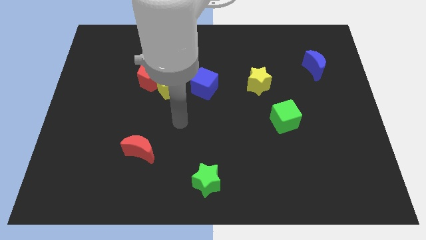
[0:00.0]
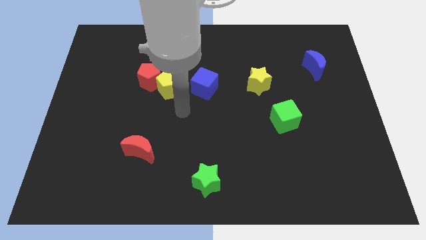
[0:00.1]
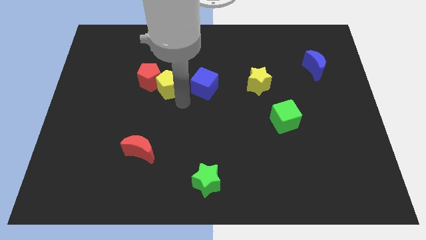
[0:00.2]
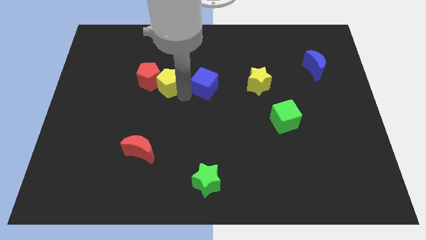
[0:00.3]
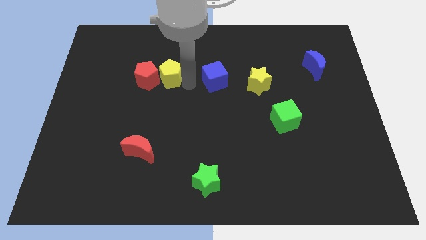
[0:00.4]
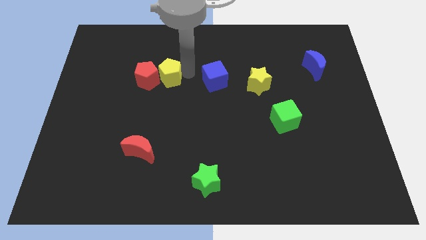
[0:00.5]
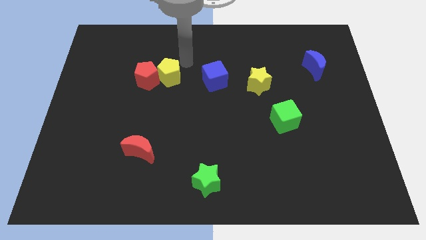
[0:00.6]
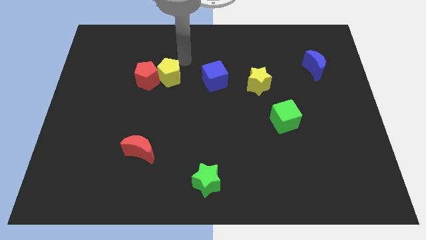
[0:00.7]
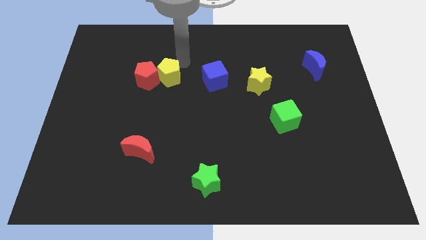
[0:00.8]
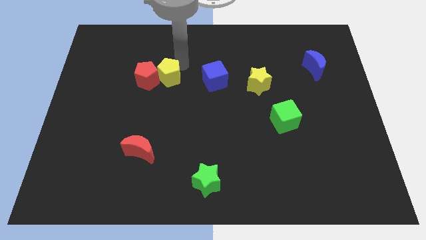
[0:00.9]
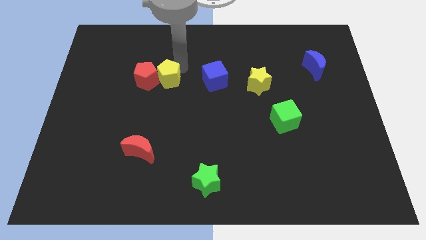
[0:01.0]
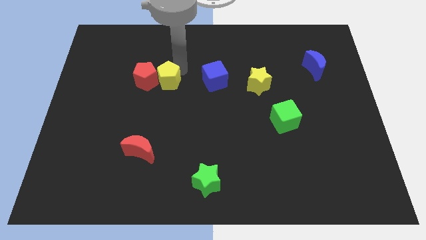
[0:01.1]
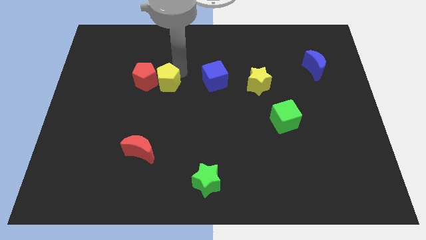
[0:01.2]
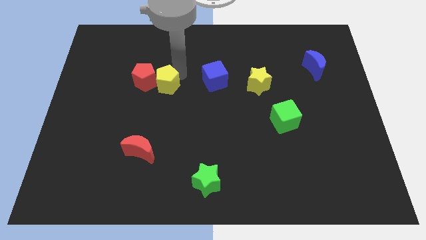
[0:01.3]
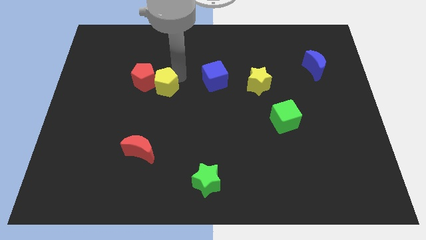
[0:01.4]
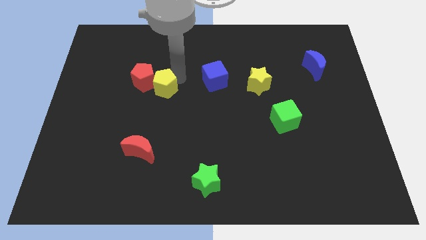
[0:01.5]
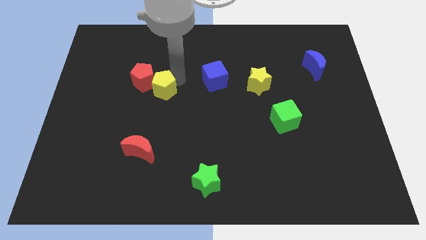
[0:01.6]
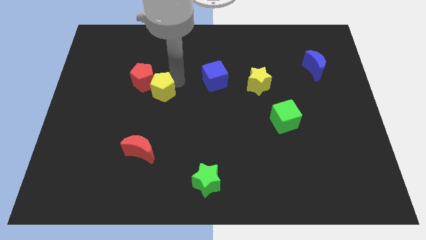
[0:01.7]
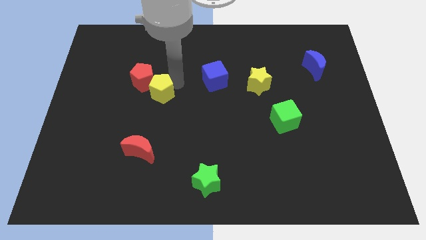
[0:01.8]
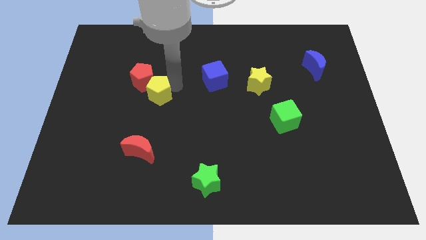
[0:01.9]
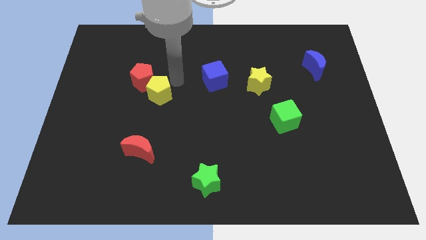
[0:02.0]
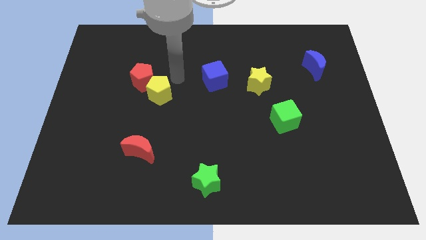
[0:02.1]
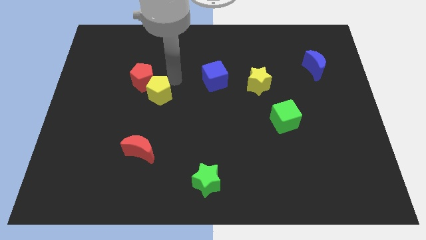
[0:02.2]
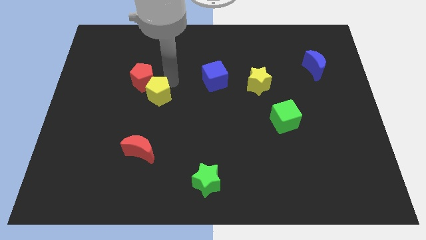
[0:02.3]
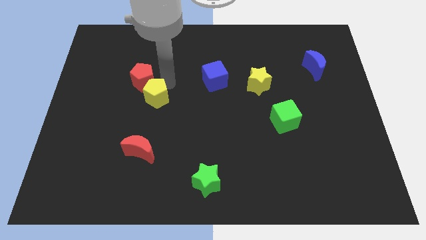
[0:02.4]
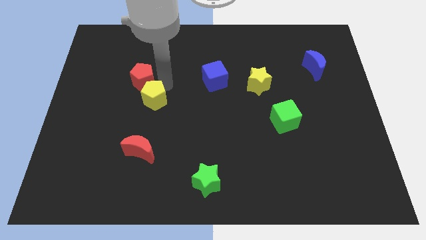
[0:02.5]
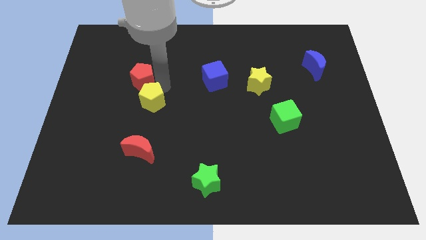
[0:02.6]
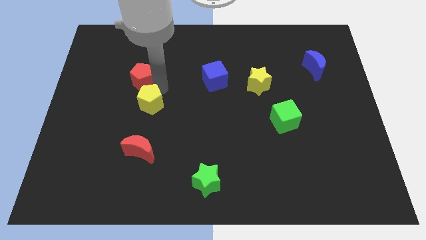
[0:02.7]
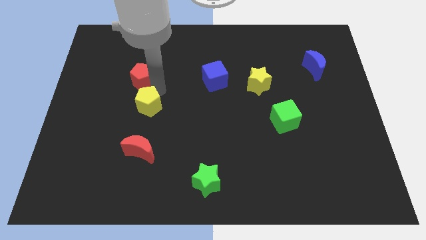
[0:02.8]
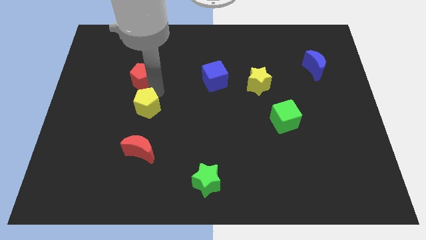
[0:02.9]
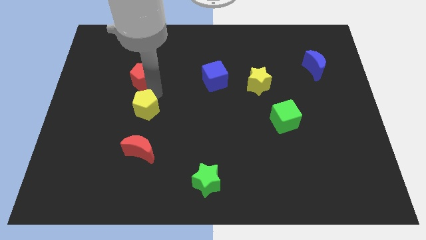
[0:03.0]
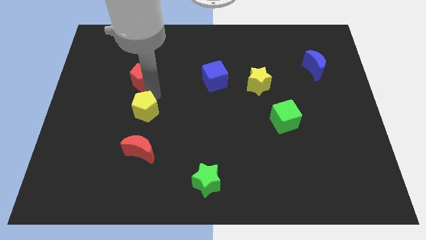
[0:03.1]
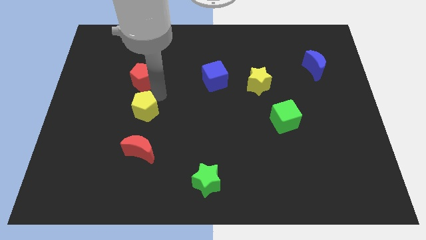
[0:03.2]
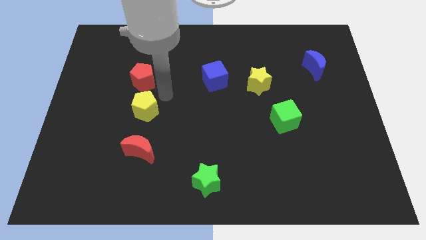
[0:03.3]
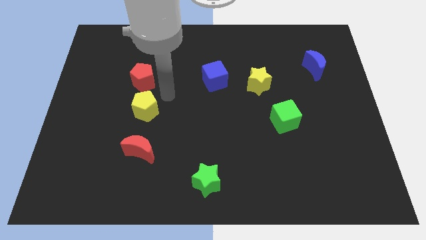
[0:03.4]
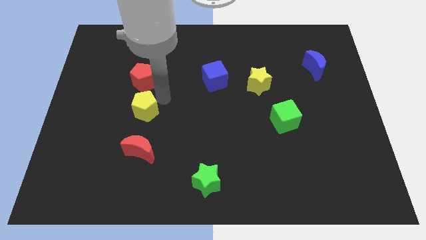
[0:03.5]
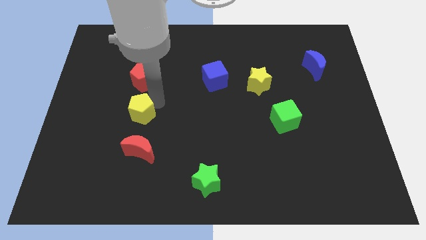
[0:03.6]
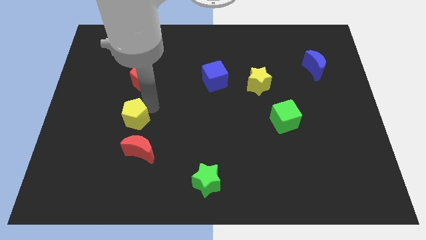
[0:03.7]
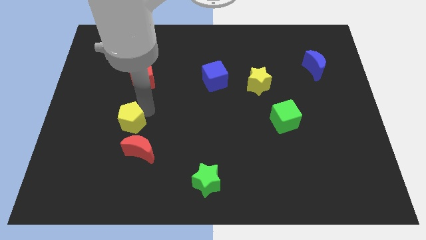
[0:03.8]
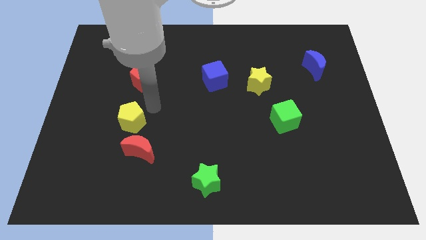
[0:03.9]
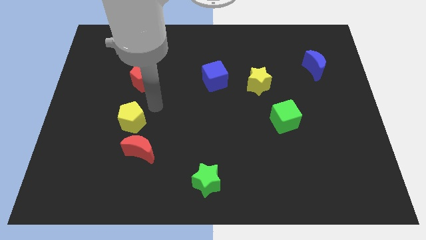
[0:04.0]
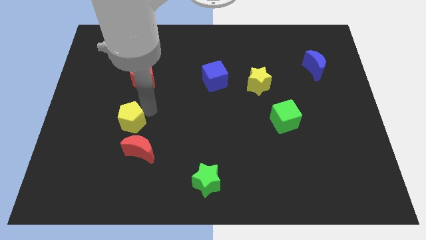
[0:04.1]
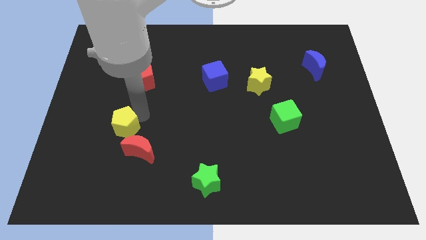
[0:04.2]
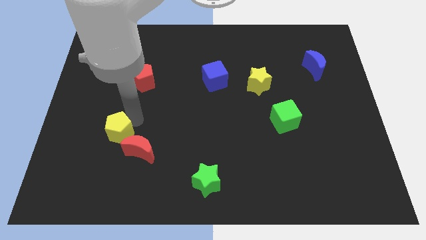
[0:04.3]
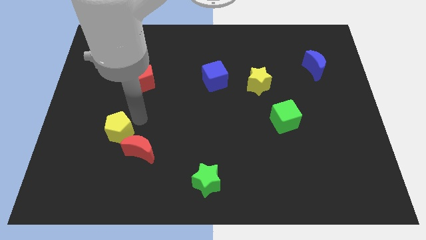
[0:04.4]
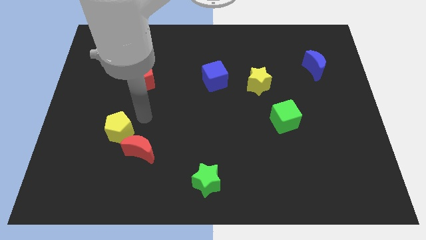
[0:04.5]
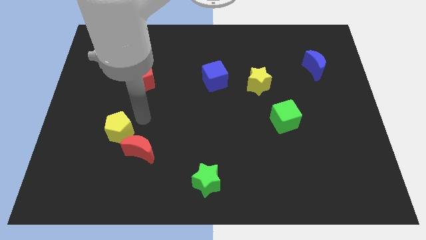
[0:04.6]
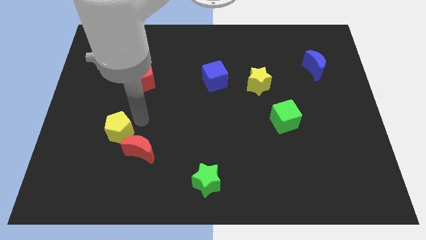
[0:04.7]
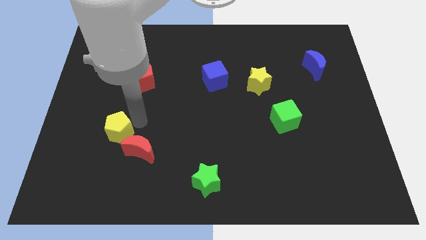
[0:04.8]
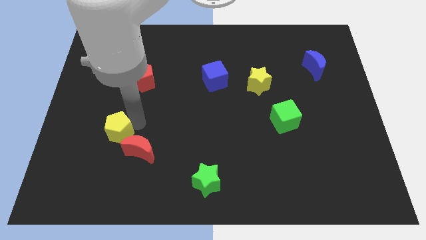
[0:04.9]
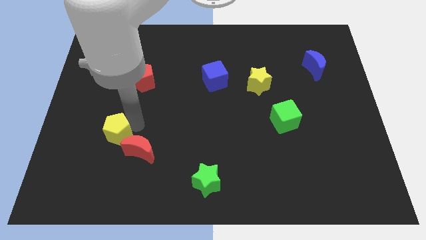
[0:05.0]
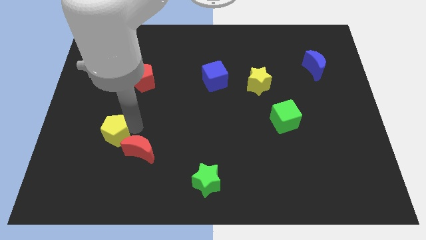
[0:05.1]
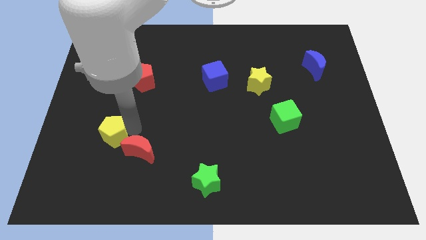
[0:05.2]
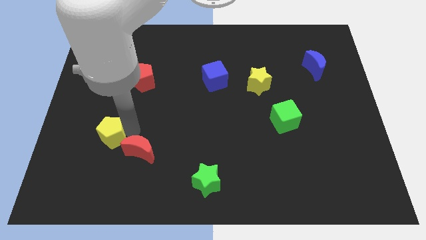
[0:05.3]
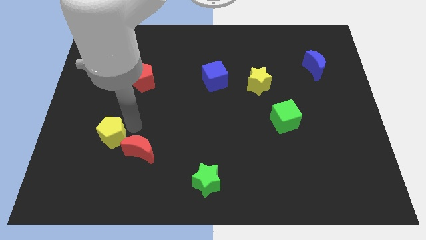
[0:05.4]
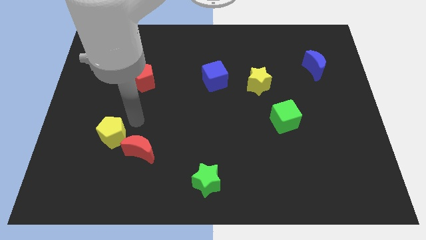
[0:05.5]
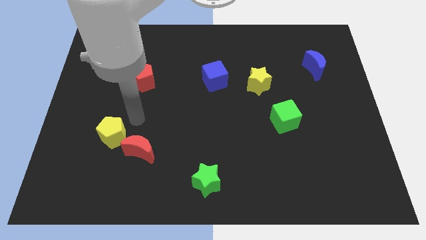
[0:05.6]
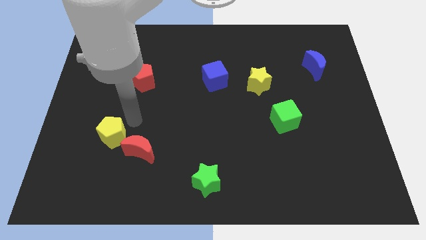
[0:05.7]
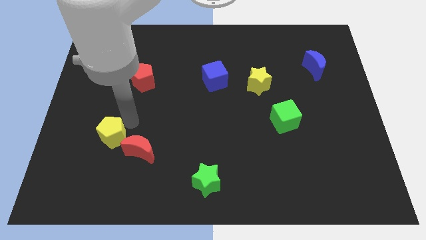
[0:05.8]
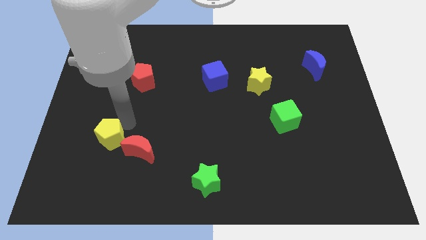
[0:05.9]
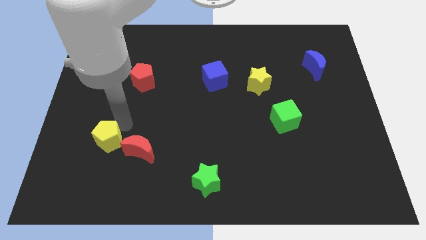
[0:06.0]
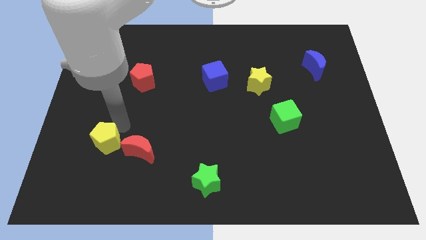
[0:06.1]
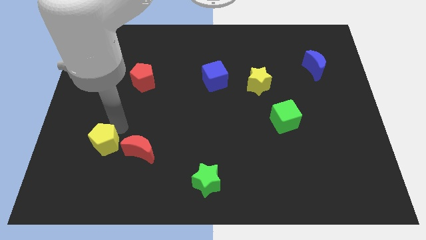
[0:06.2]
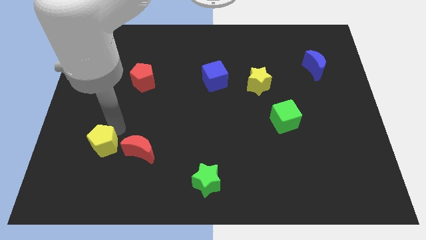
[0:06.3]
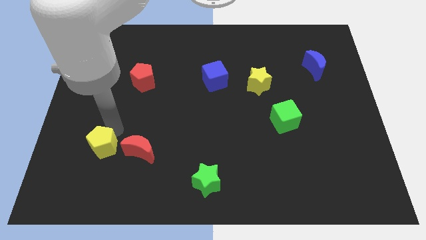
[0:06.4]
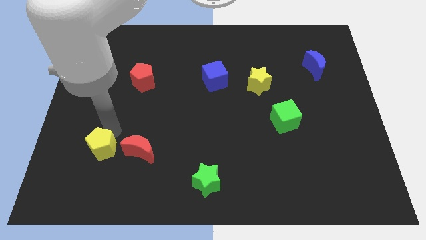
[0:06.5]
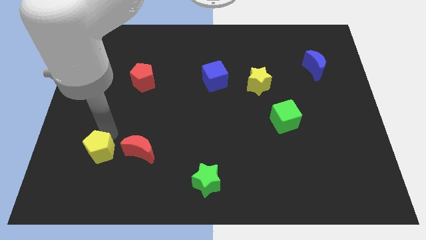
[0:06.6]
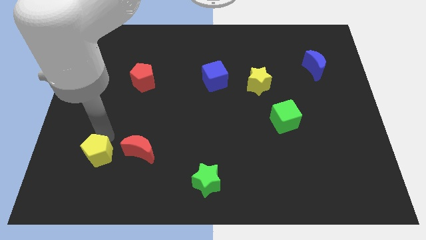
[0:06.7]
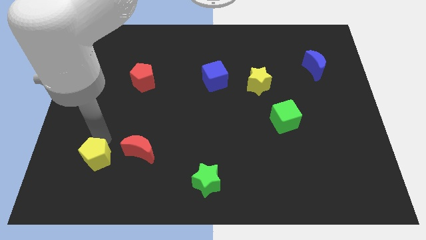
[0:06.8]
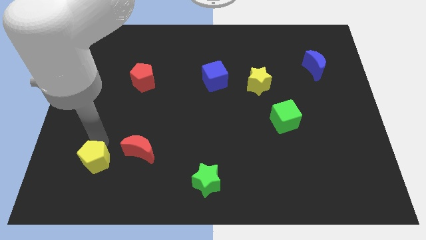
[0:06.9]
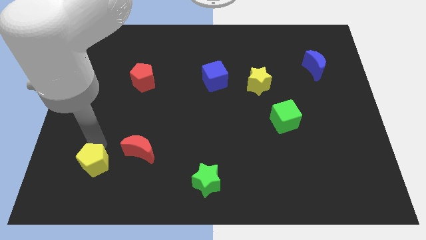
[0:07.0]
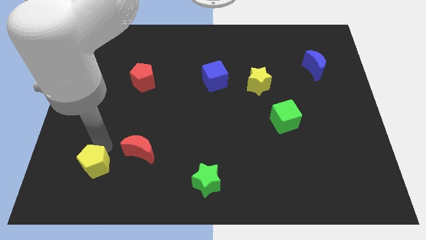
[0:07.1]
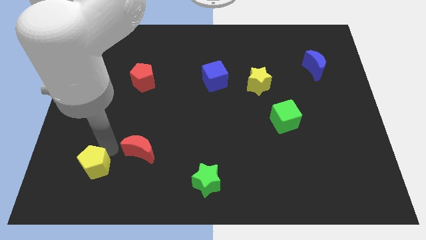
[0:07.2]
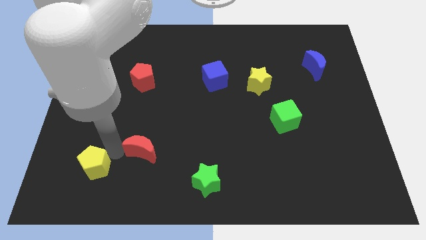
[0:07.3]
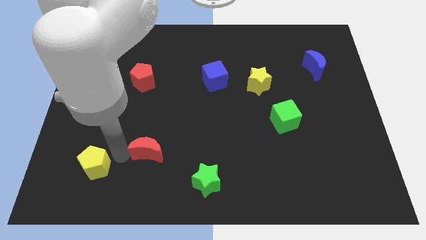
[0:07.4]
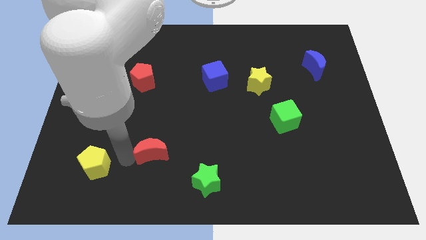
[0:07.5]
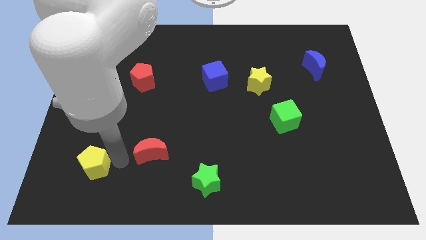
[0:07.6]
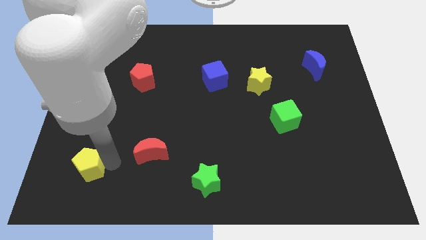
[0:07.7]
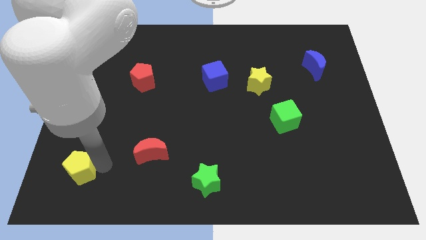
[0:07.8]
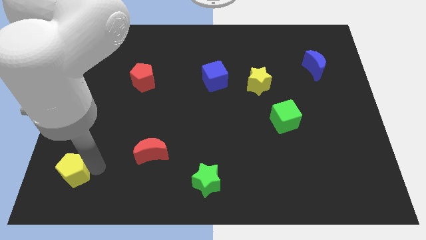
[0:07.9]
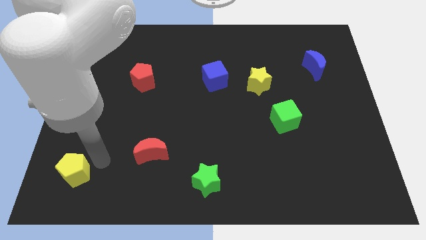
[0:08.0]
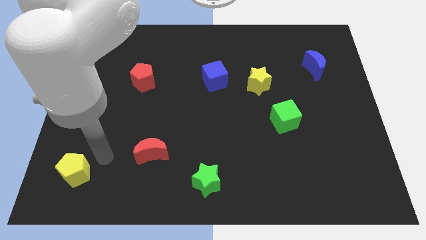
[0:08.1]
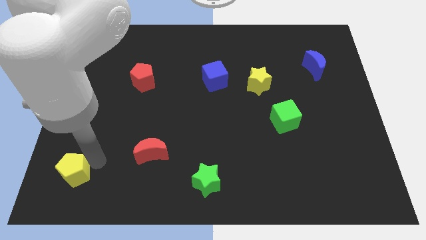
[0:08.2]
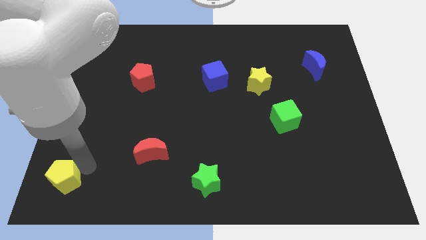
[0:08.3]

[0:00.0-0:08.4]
move the yellow pentagon to the bottom left
